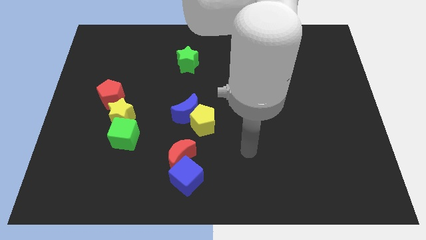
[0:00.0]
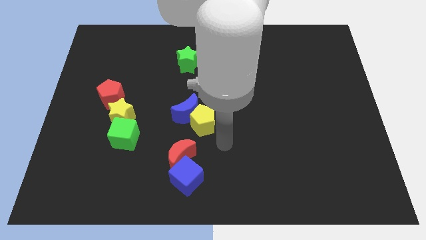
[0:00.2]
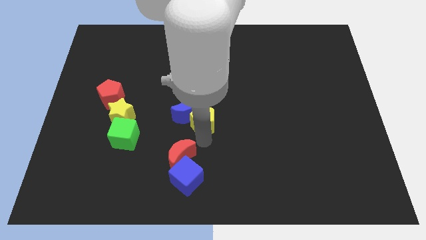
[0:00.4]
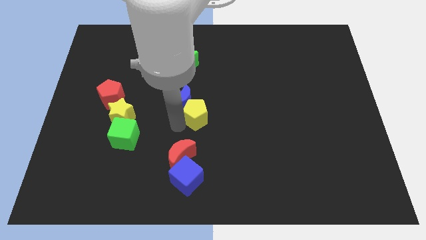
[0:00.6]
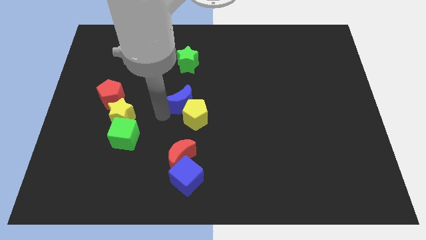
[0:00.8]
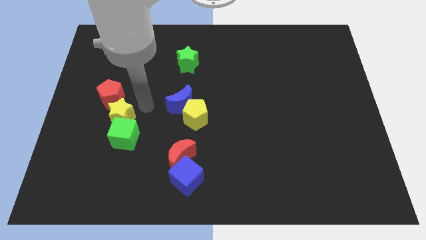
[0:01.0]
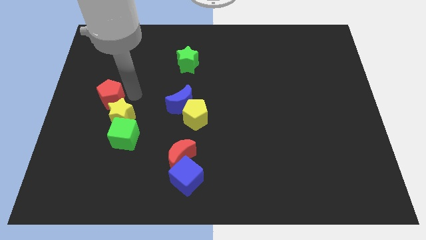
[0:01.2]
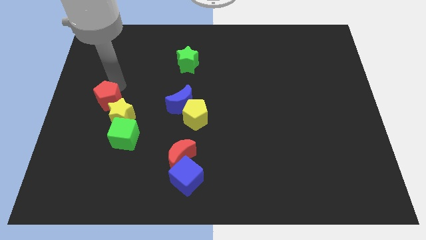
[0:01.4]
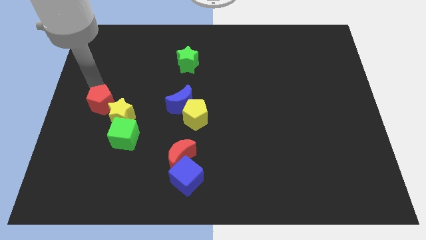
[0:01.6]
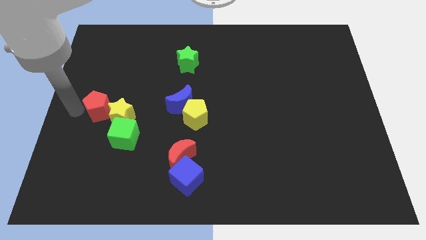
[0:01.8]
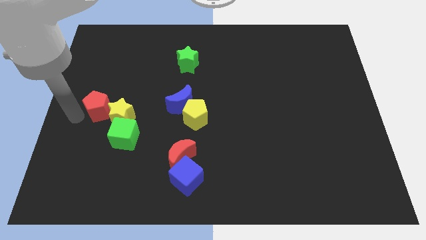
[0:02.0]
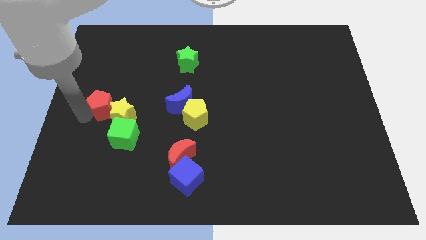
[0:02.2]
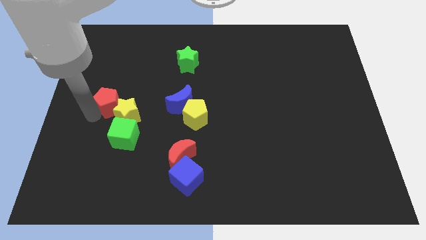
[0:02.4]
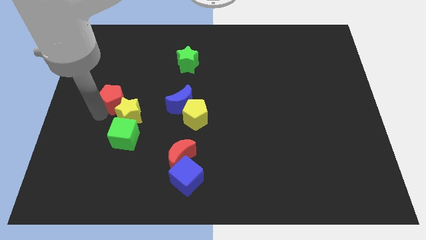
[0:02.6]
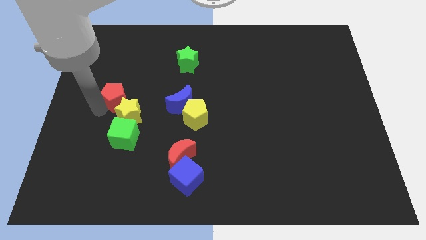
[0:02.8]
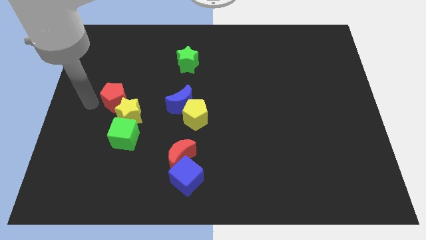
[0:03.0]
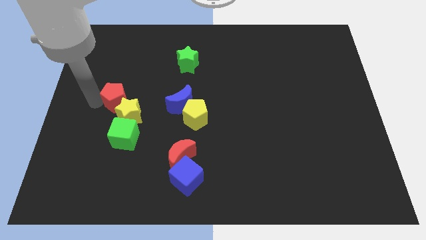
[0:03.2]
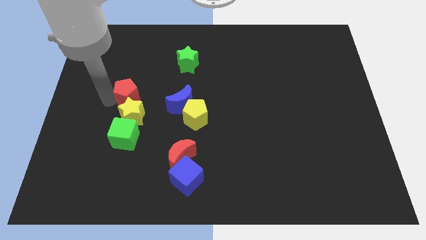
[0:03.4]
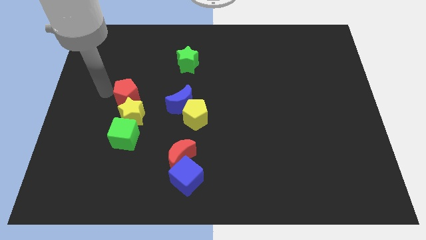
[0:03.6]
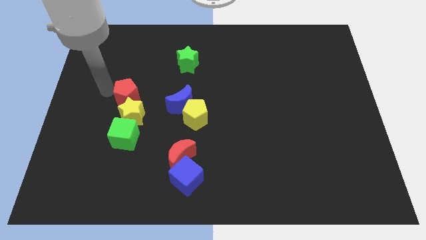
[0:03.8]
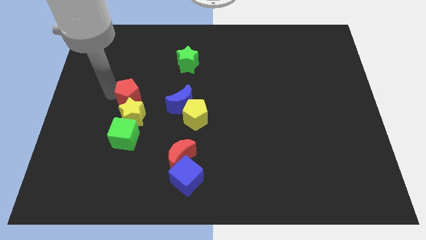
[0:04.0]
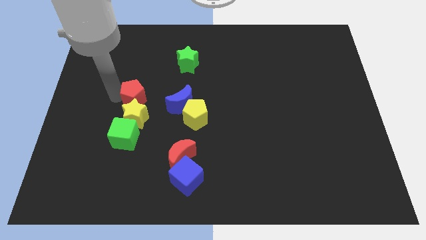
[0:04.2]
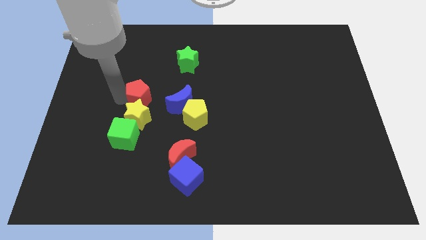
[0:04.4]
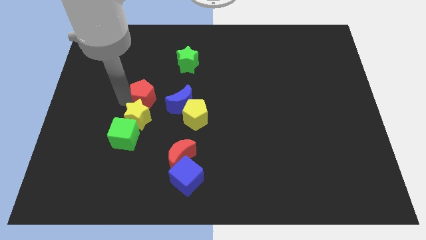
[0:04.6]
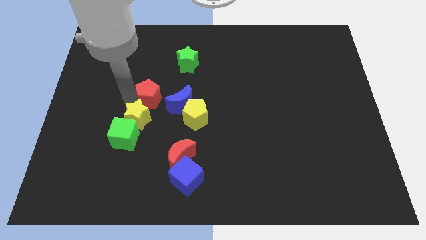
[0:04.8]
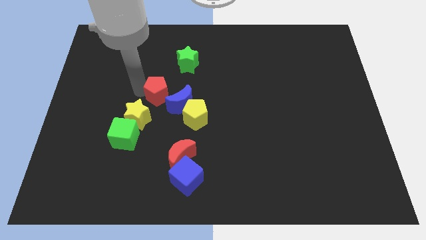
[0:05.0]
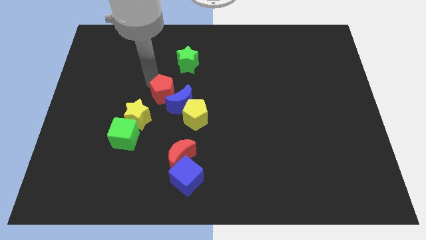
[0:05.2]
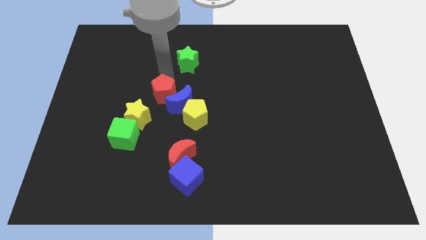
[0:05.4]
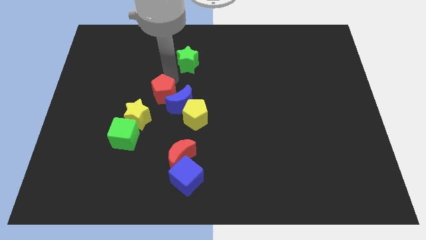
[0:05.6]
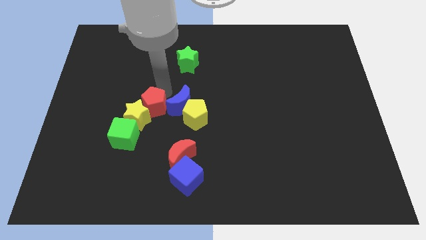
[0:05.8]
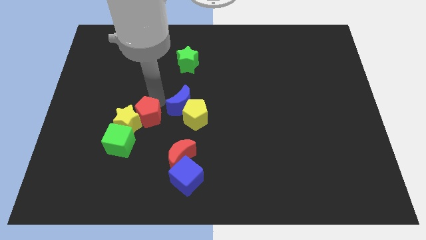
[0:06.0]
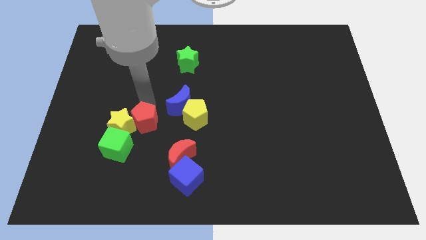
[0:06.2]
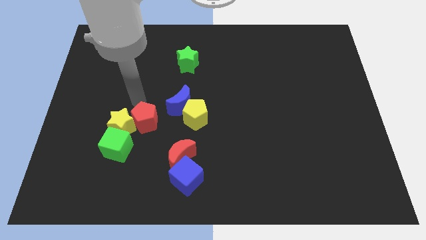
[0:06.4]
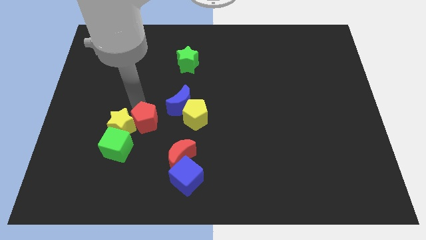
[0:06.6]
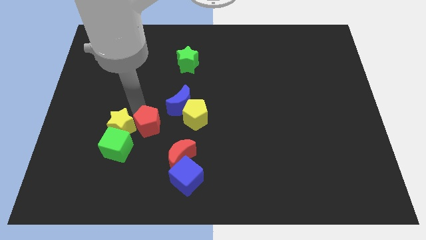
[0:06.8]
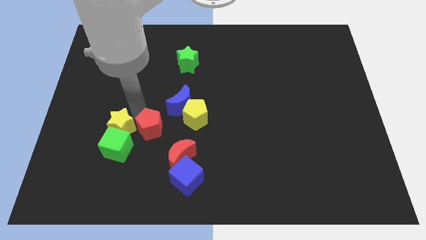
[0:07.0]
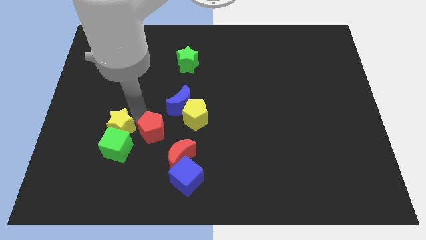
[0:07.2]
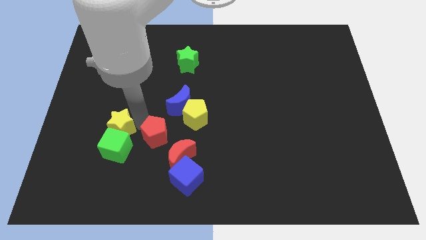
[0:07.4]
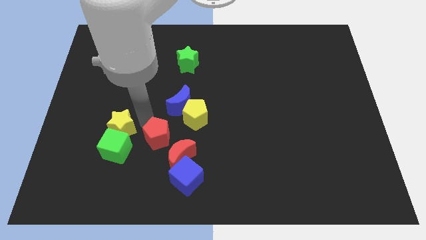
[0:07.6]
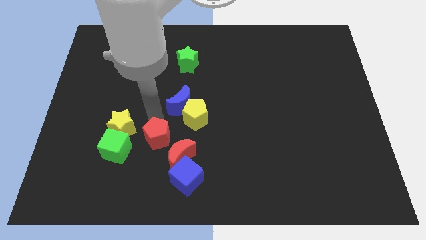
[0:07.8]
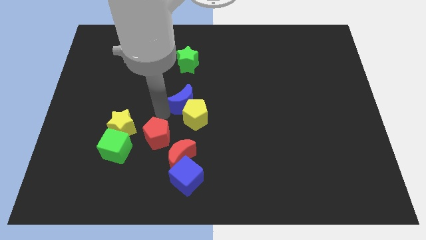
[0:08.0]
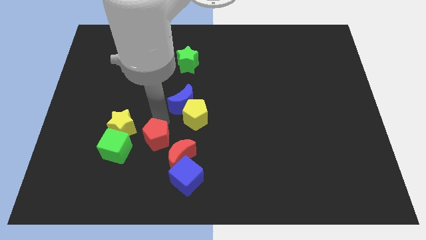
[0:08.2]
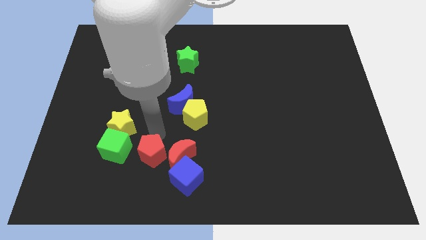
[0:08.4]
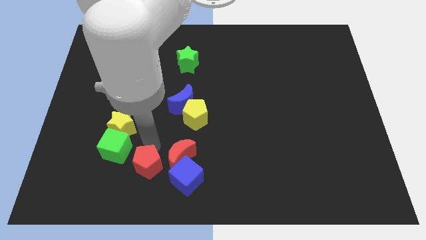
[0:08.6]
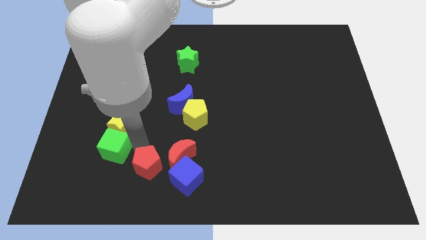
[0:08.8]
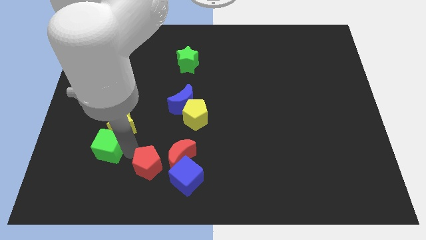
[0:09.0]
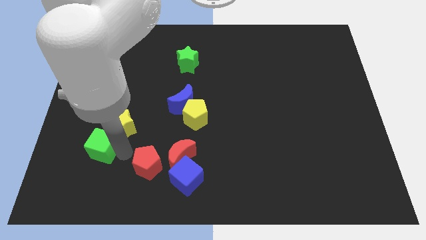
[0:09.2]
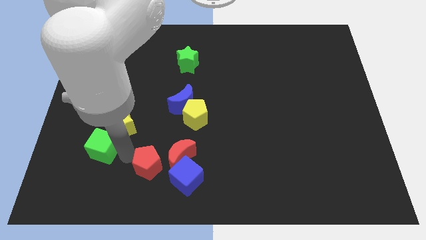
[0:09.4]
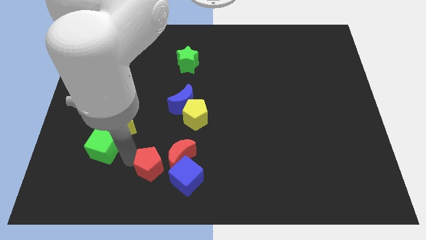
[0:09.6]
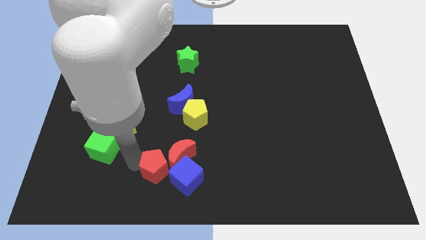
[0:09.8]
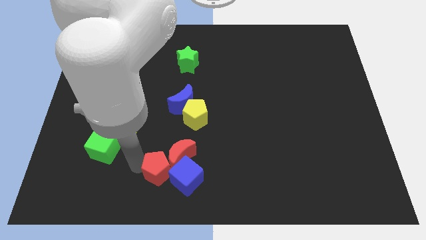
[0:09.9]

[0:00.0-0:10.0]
slide the red pentagon next to the blue cube

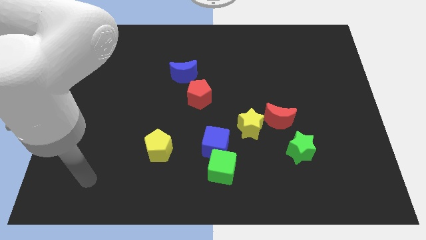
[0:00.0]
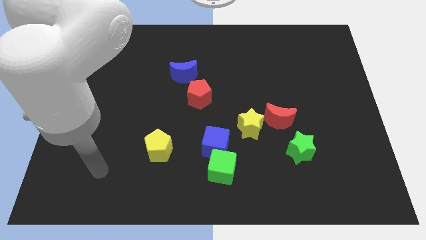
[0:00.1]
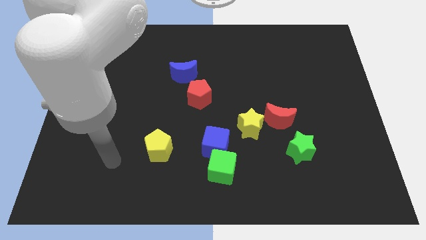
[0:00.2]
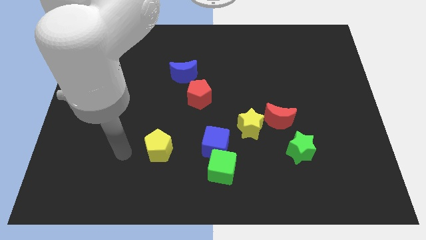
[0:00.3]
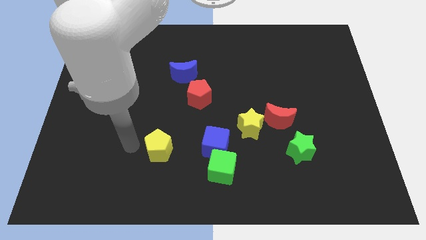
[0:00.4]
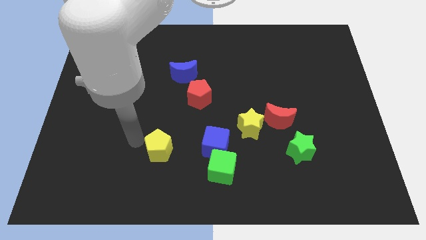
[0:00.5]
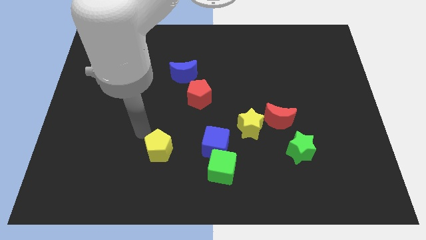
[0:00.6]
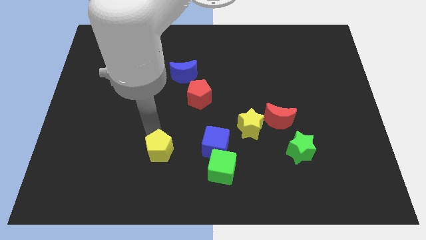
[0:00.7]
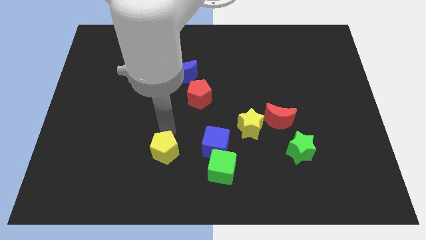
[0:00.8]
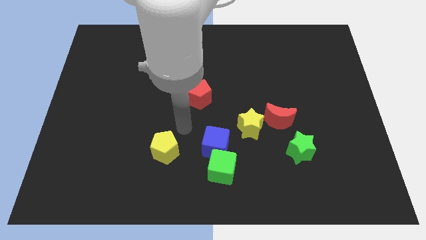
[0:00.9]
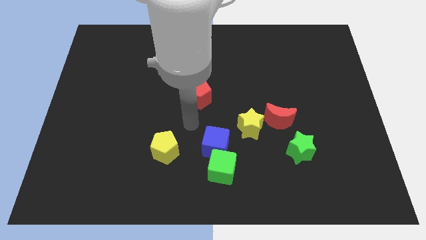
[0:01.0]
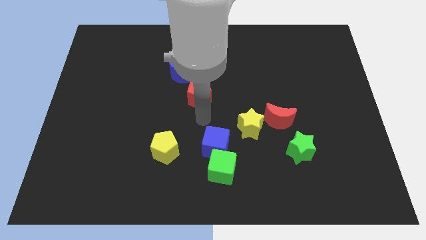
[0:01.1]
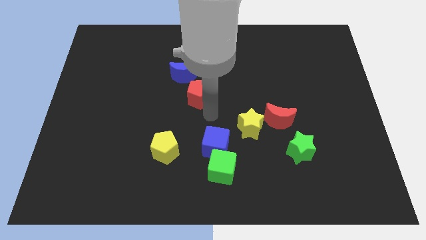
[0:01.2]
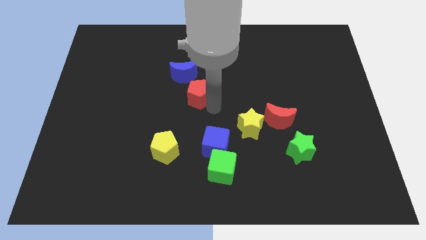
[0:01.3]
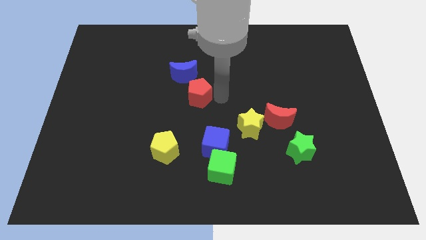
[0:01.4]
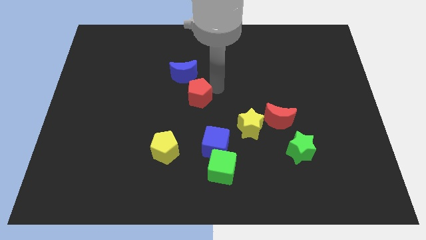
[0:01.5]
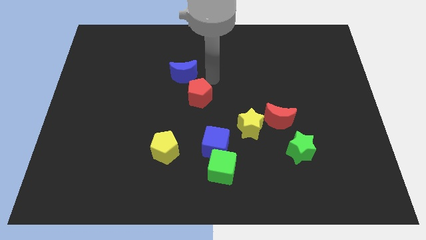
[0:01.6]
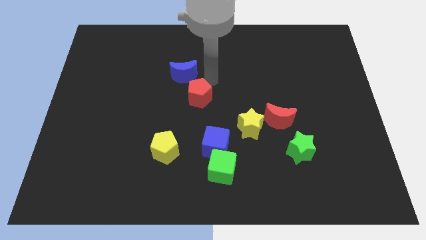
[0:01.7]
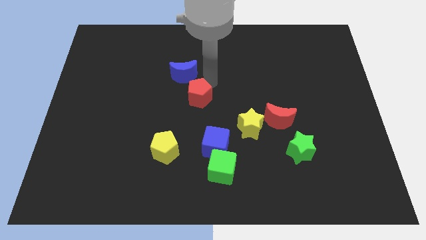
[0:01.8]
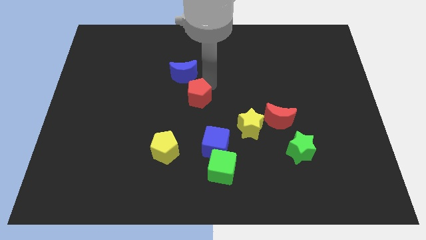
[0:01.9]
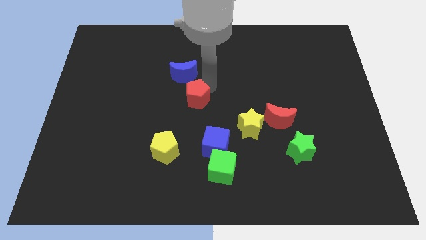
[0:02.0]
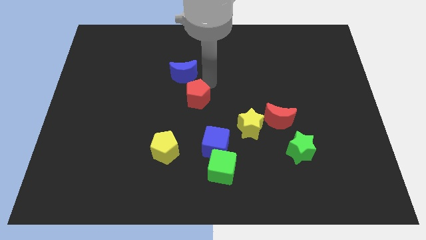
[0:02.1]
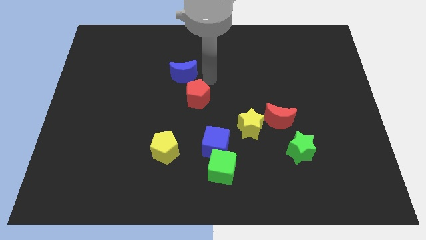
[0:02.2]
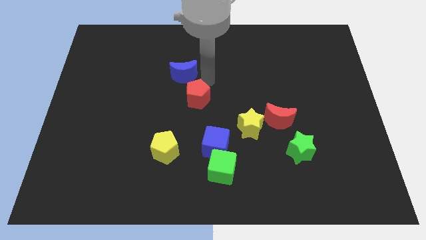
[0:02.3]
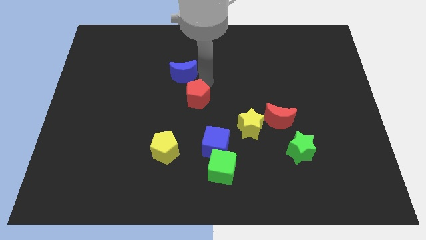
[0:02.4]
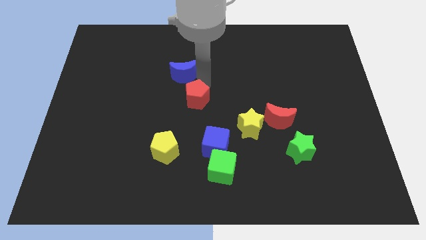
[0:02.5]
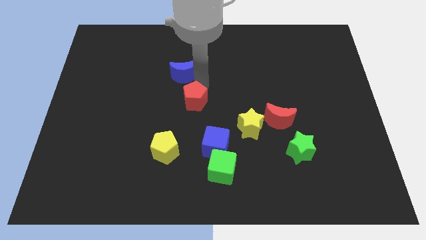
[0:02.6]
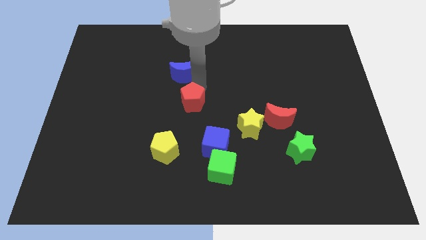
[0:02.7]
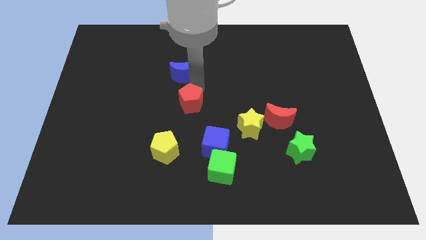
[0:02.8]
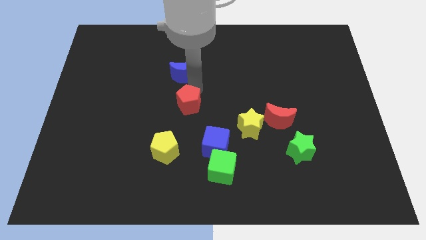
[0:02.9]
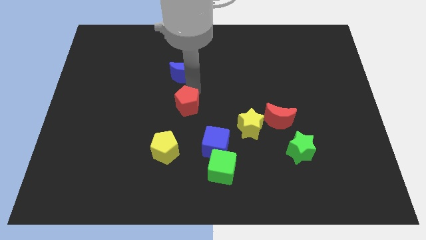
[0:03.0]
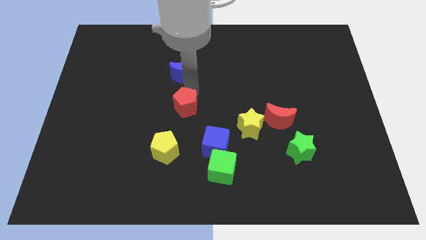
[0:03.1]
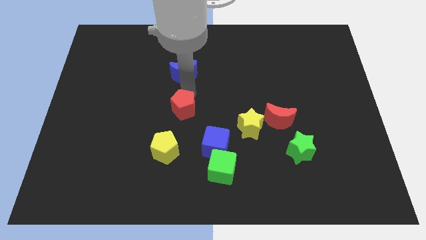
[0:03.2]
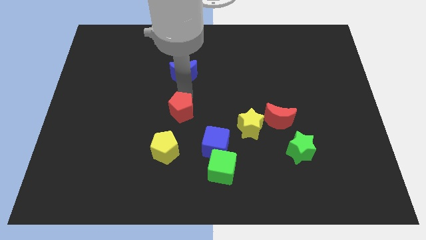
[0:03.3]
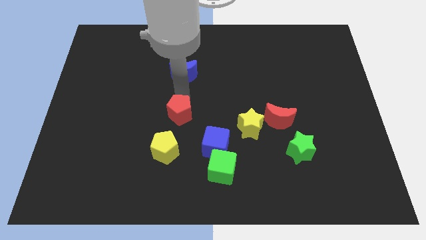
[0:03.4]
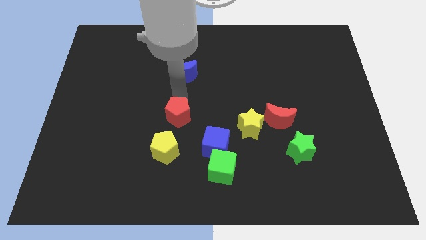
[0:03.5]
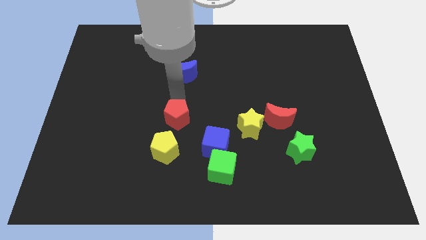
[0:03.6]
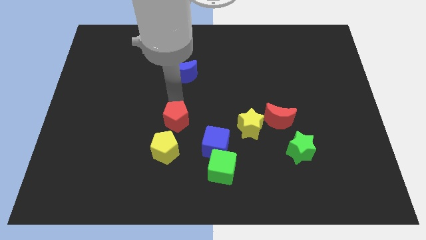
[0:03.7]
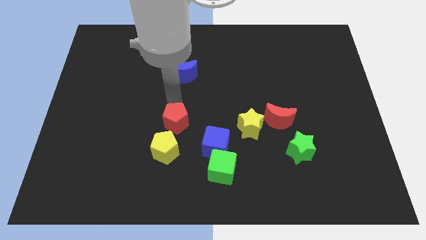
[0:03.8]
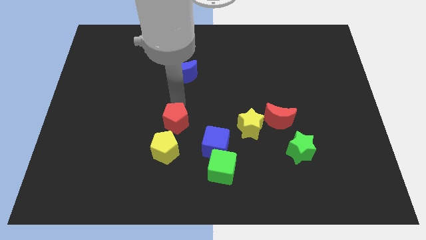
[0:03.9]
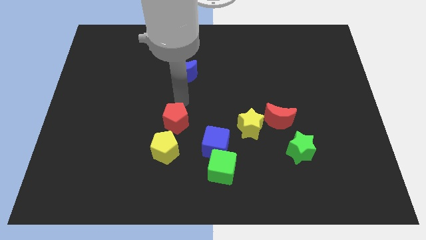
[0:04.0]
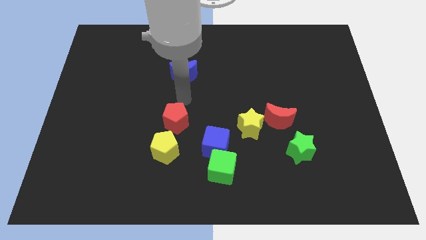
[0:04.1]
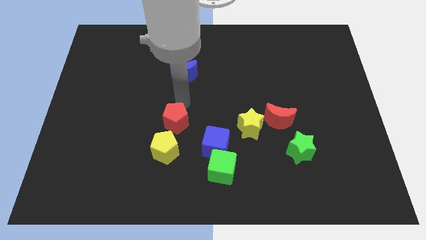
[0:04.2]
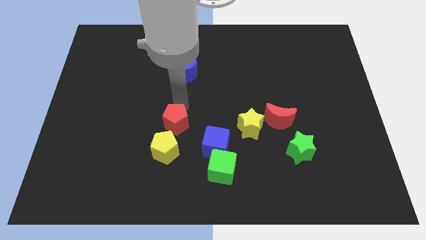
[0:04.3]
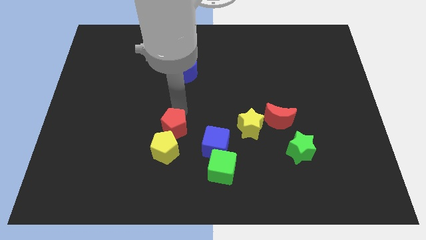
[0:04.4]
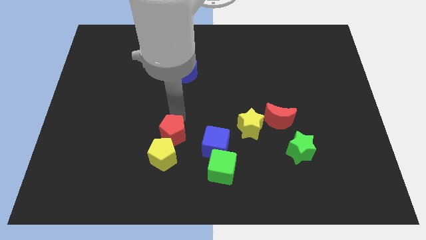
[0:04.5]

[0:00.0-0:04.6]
push the red pentagon close to the yellow pentagon
